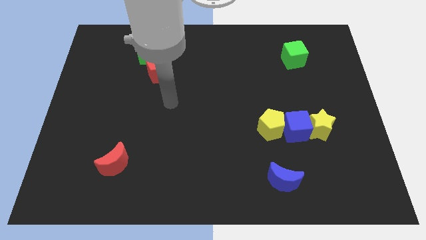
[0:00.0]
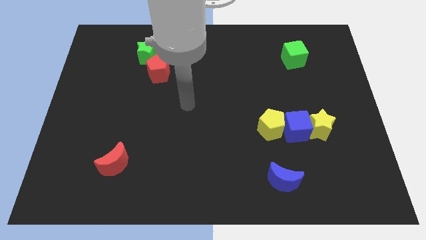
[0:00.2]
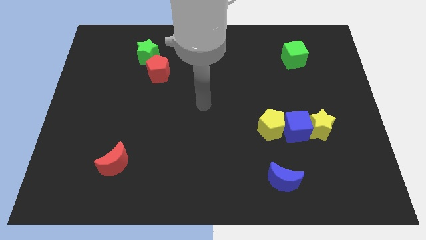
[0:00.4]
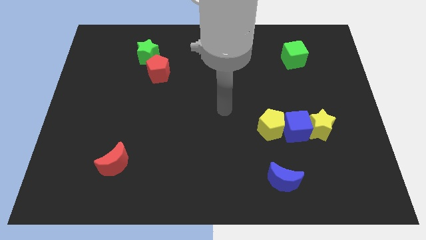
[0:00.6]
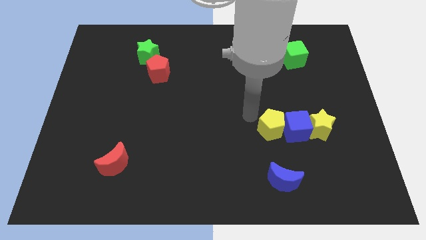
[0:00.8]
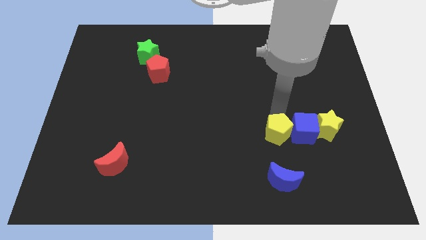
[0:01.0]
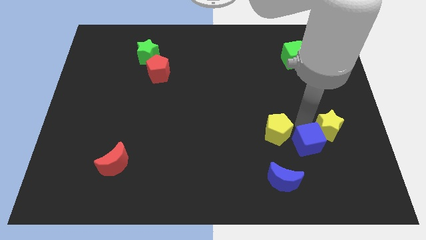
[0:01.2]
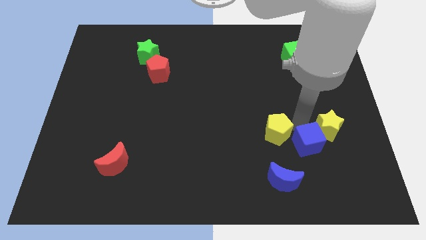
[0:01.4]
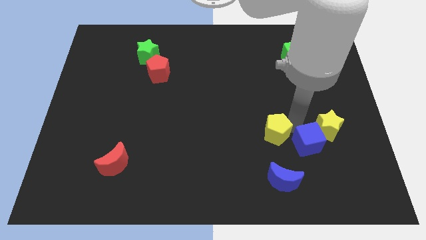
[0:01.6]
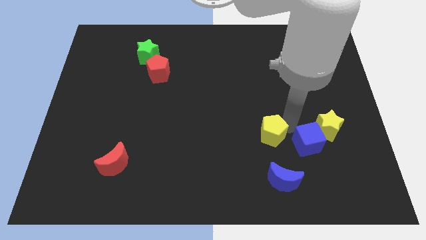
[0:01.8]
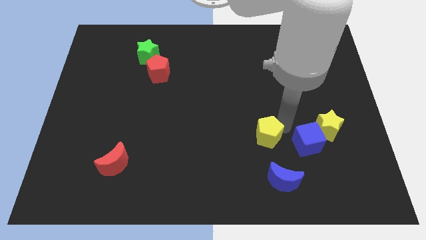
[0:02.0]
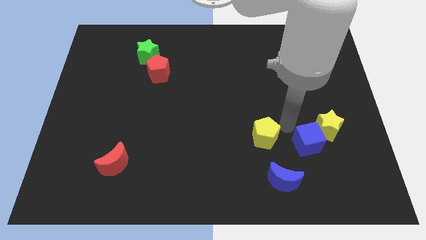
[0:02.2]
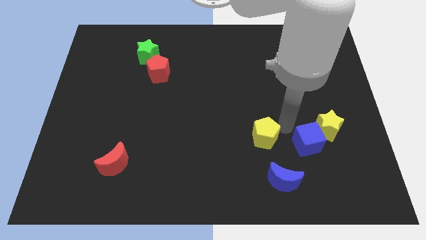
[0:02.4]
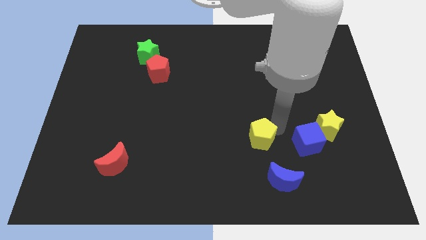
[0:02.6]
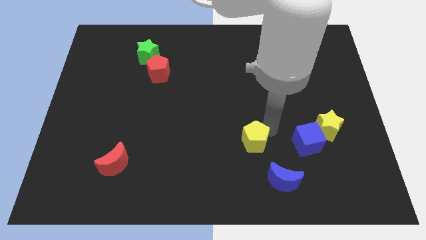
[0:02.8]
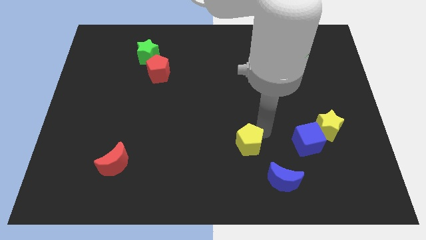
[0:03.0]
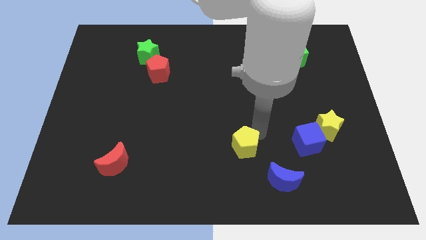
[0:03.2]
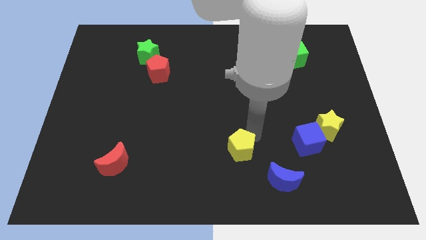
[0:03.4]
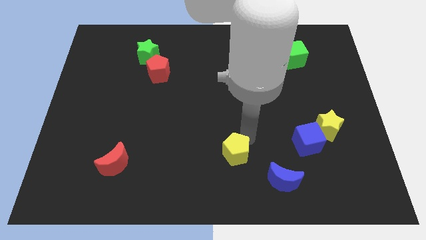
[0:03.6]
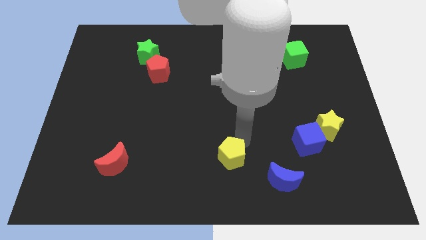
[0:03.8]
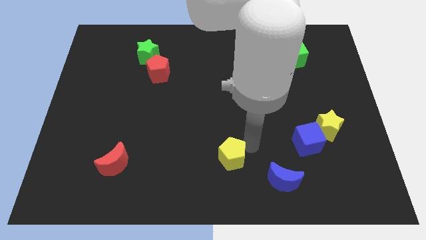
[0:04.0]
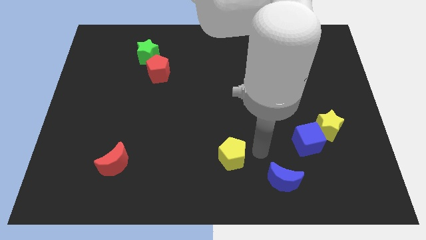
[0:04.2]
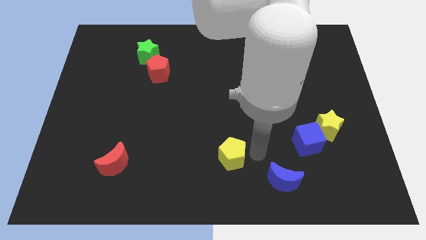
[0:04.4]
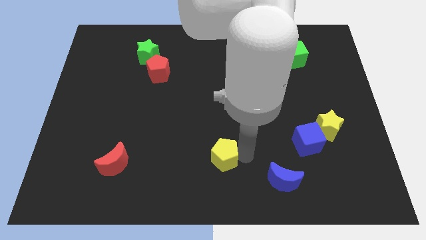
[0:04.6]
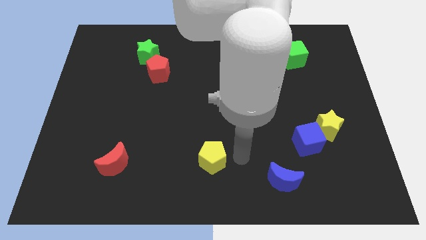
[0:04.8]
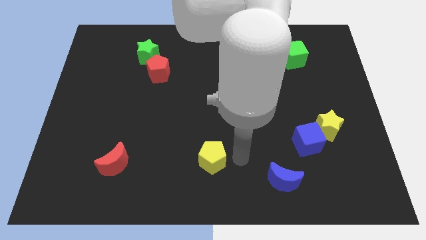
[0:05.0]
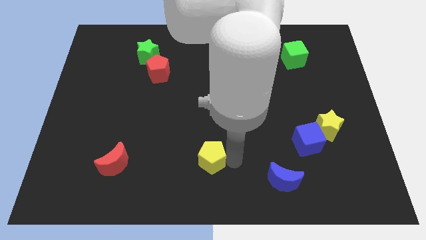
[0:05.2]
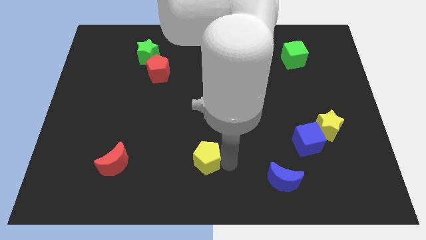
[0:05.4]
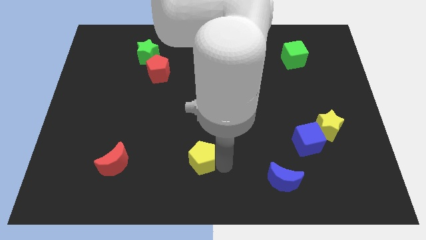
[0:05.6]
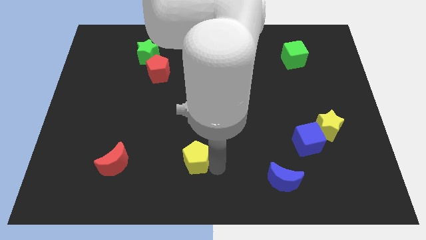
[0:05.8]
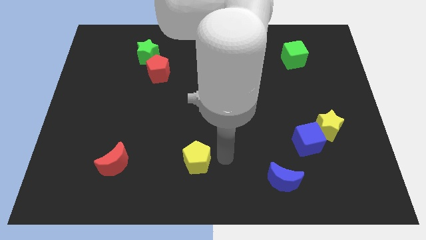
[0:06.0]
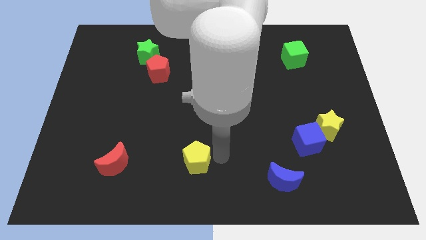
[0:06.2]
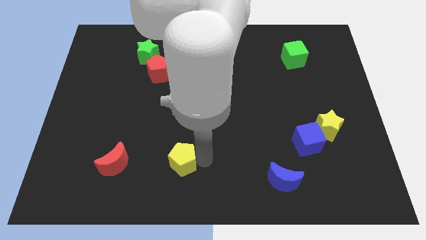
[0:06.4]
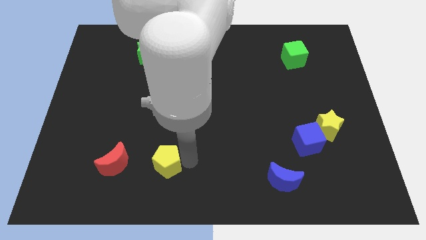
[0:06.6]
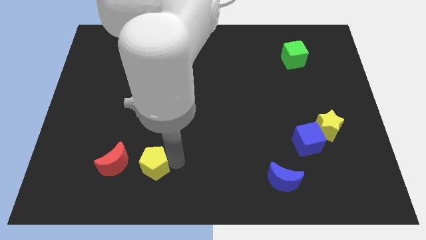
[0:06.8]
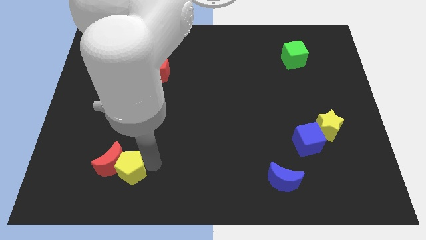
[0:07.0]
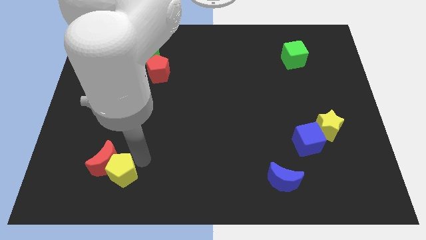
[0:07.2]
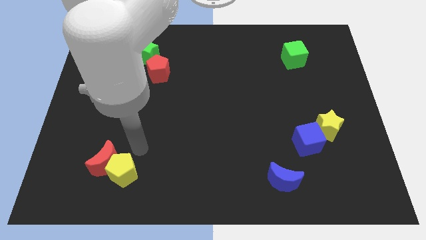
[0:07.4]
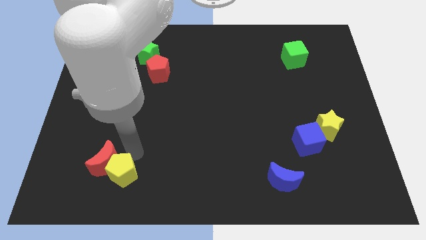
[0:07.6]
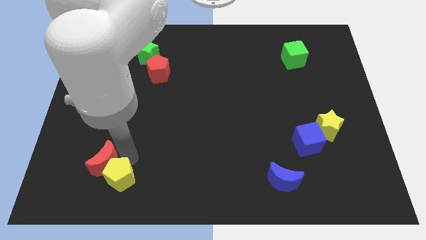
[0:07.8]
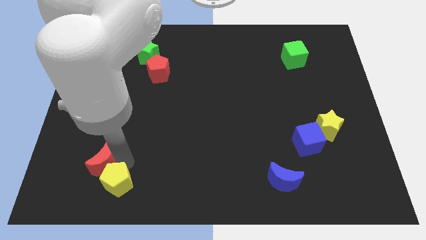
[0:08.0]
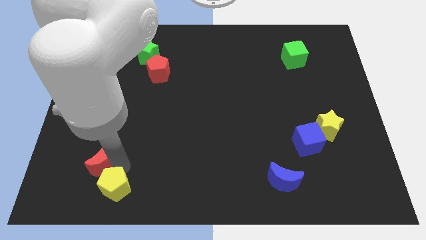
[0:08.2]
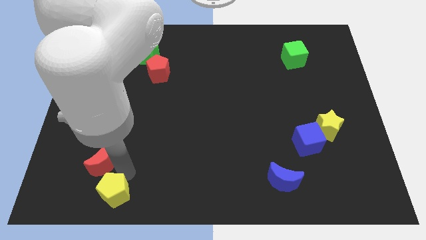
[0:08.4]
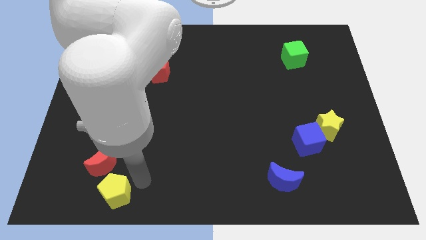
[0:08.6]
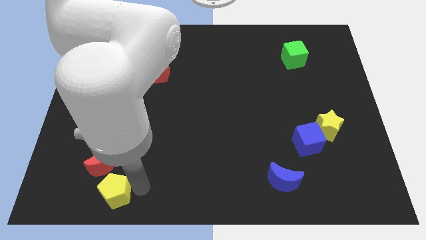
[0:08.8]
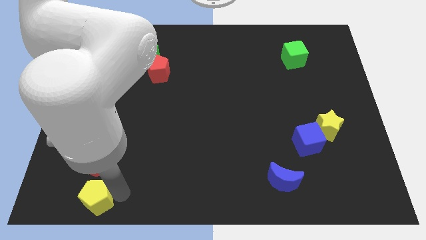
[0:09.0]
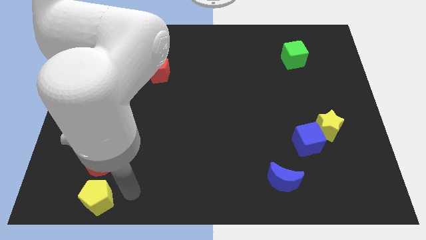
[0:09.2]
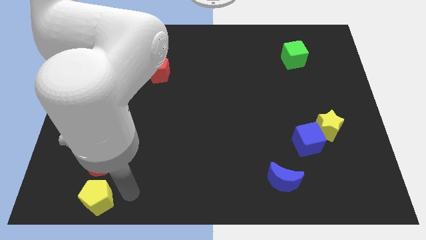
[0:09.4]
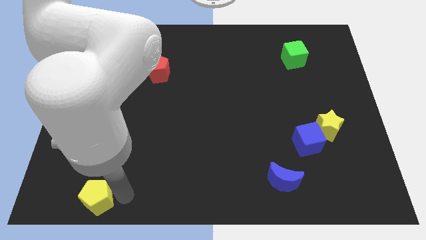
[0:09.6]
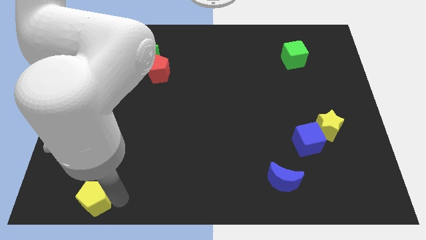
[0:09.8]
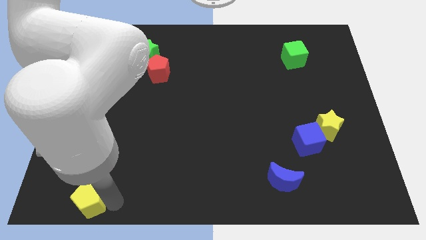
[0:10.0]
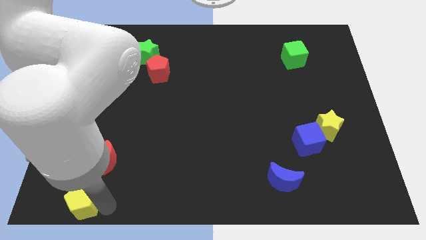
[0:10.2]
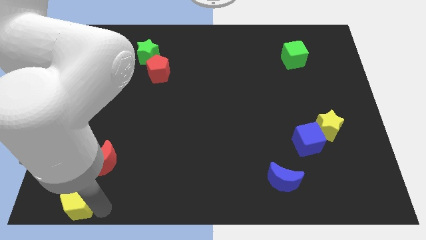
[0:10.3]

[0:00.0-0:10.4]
put the yellow pentagon to the bottom left

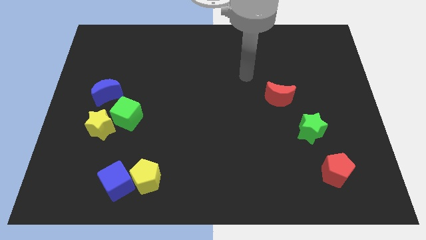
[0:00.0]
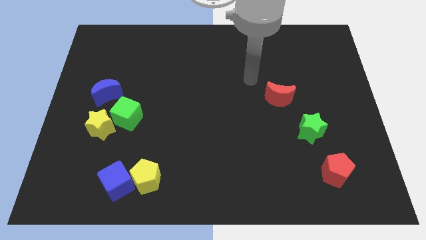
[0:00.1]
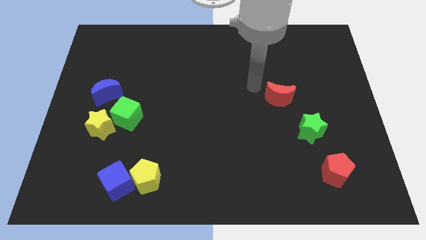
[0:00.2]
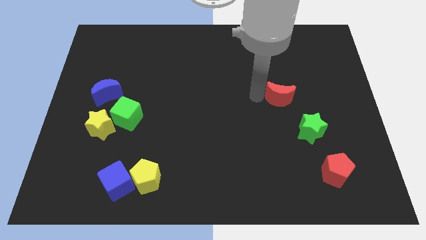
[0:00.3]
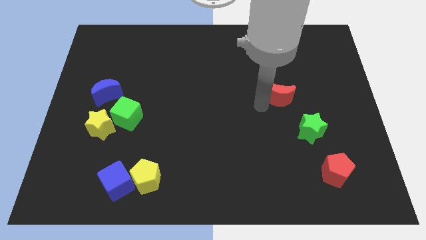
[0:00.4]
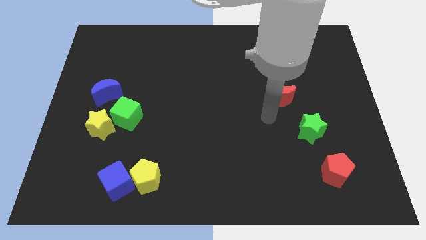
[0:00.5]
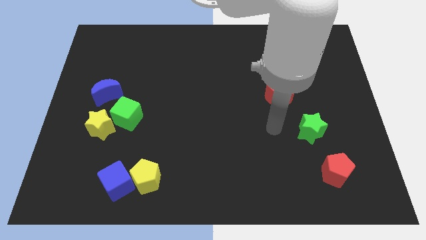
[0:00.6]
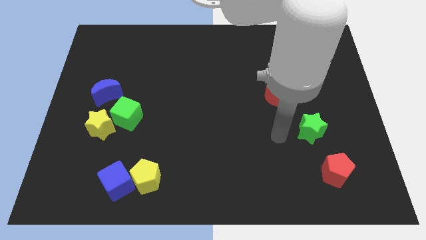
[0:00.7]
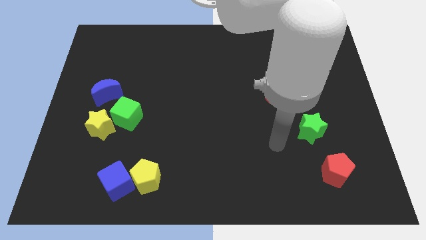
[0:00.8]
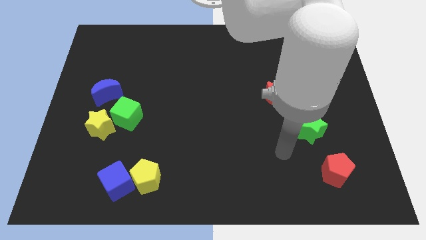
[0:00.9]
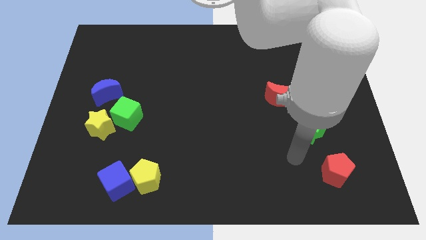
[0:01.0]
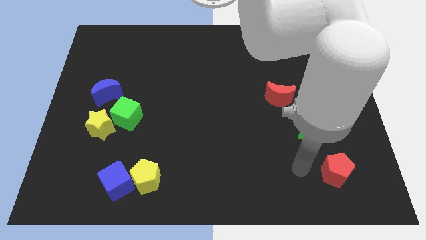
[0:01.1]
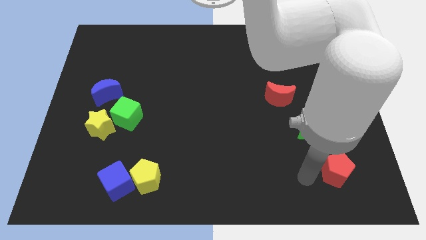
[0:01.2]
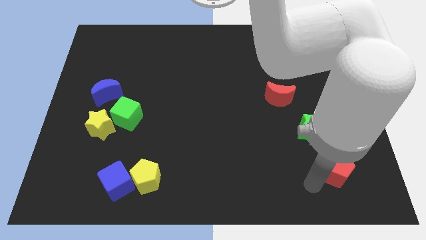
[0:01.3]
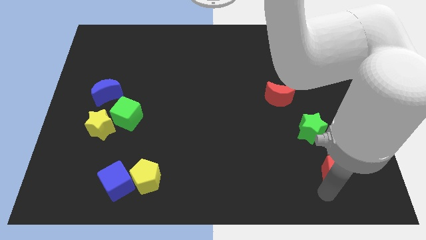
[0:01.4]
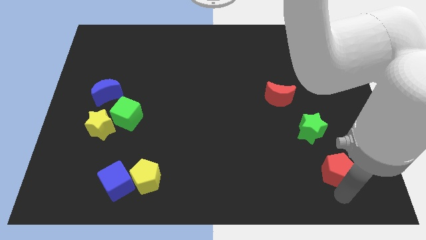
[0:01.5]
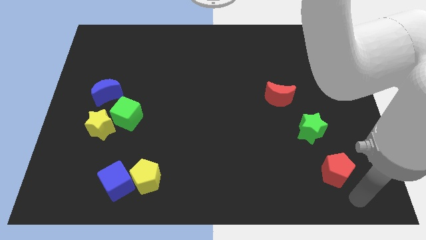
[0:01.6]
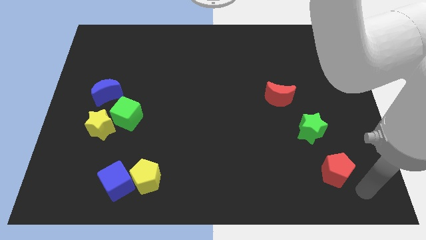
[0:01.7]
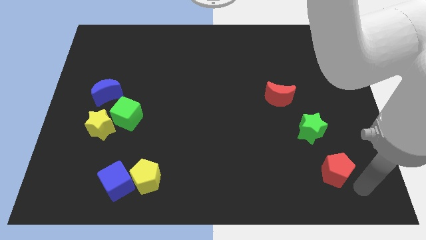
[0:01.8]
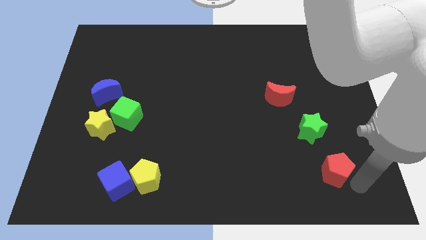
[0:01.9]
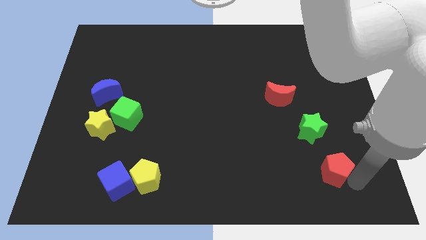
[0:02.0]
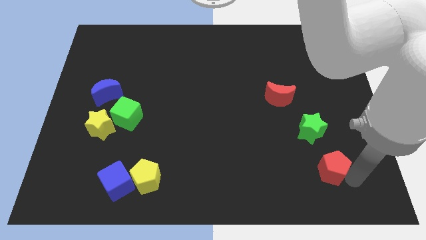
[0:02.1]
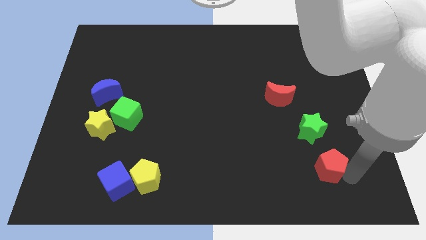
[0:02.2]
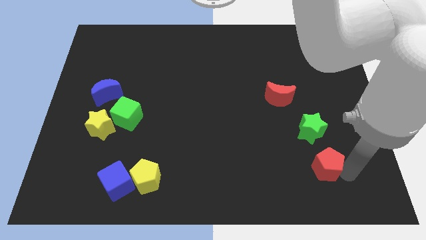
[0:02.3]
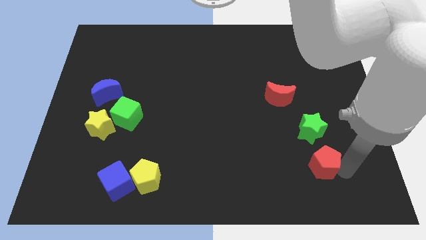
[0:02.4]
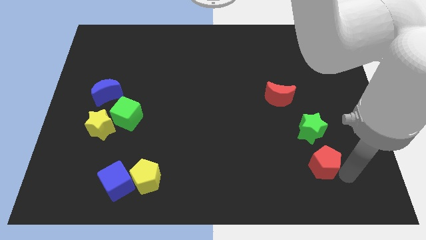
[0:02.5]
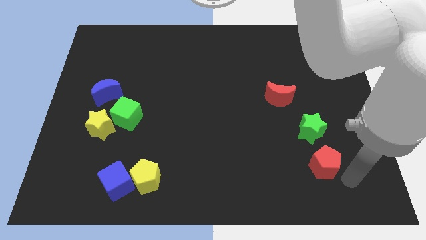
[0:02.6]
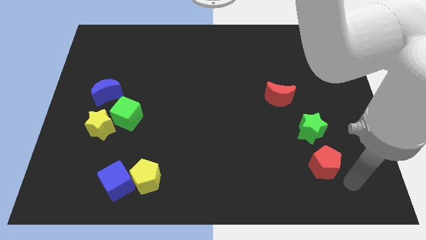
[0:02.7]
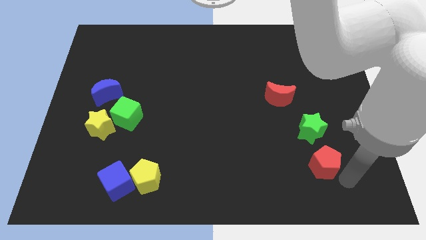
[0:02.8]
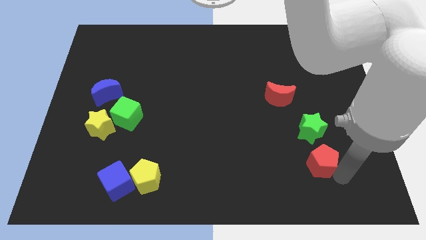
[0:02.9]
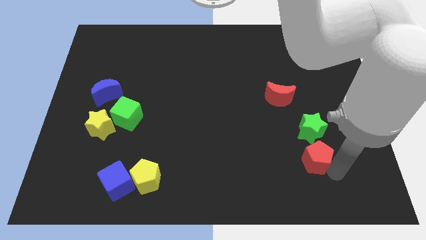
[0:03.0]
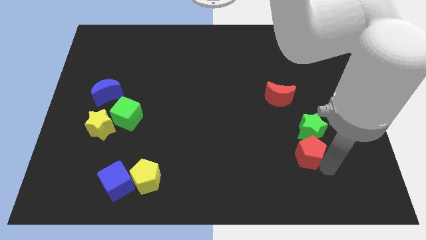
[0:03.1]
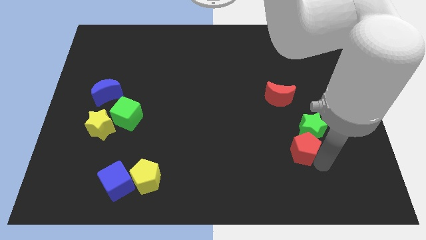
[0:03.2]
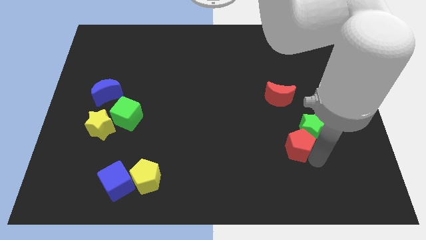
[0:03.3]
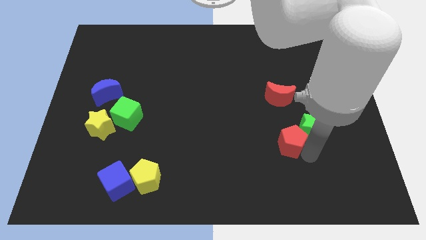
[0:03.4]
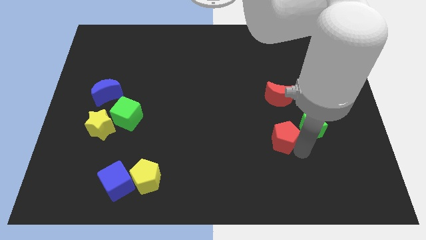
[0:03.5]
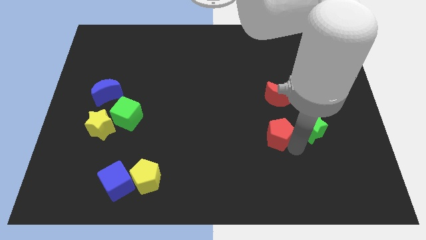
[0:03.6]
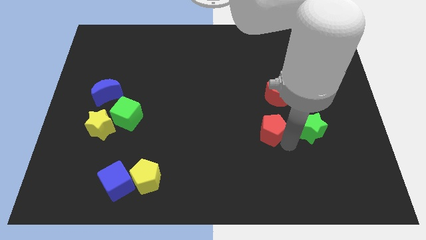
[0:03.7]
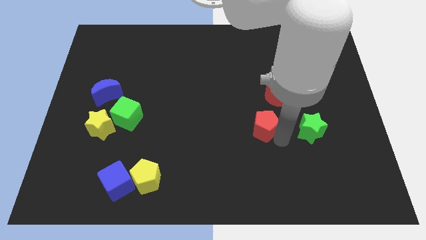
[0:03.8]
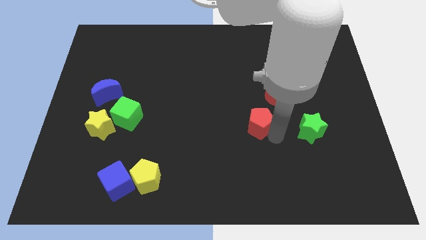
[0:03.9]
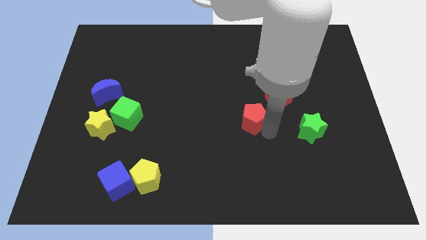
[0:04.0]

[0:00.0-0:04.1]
push the red pentagon to the center of the board
